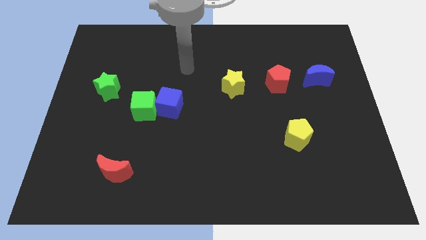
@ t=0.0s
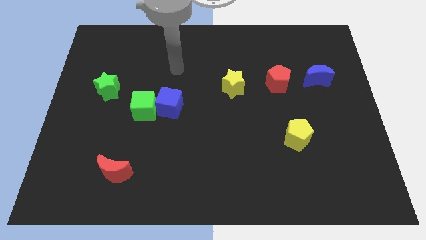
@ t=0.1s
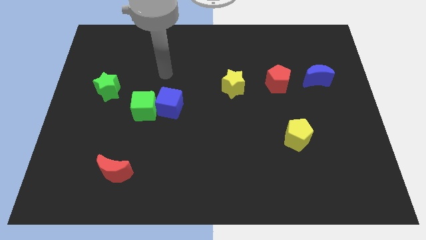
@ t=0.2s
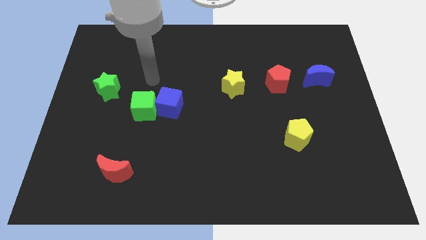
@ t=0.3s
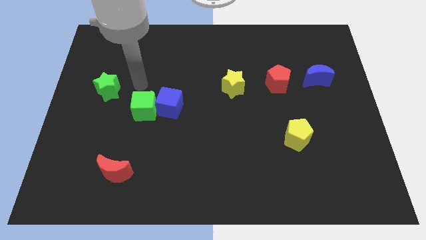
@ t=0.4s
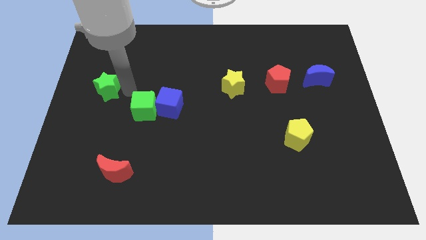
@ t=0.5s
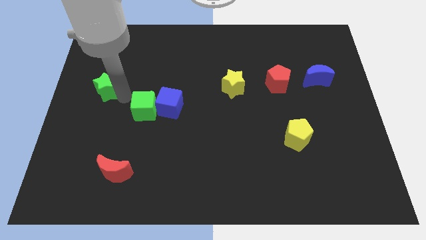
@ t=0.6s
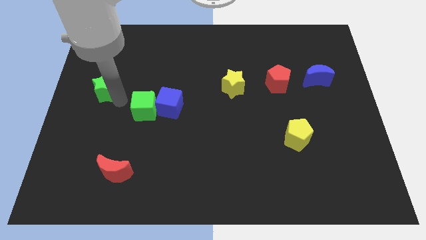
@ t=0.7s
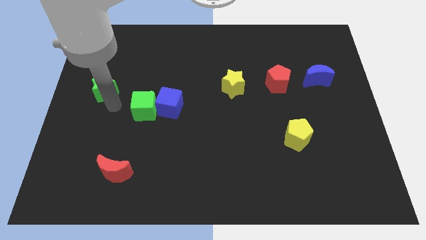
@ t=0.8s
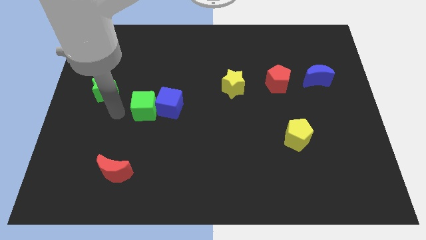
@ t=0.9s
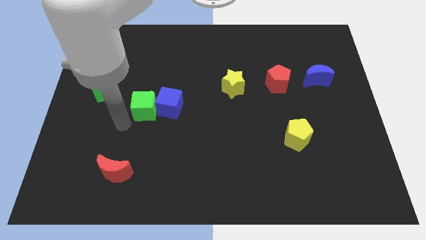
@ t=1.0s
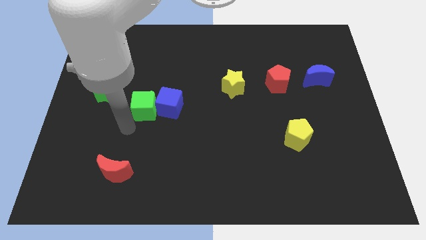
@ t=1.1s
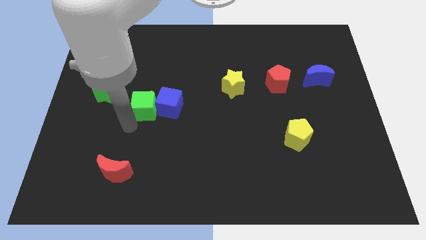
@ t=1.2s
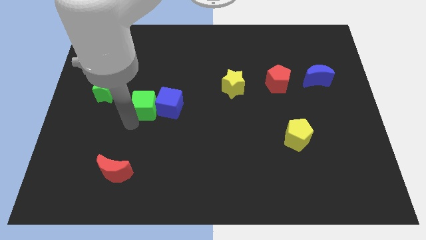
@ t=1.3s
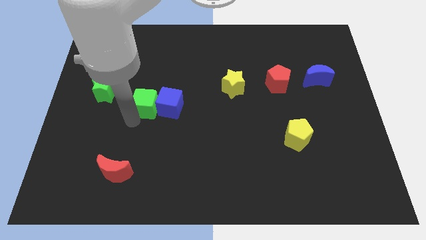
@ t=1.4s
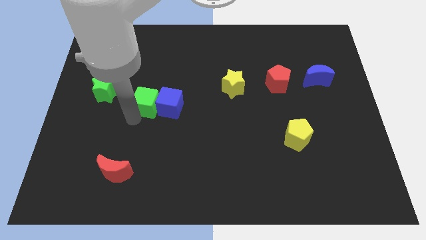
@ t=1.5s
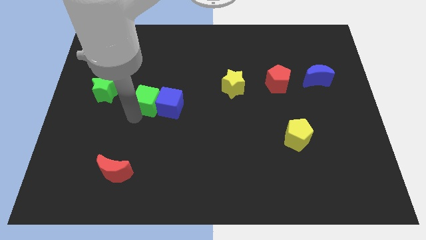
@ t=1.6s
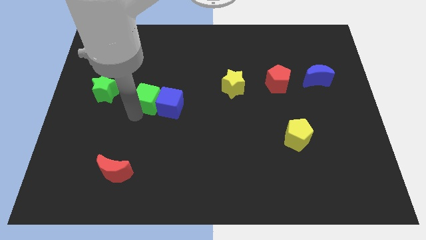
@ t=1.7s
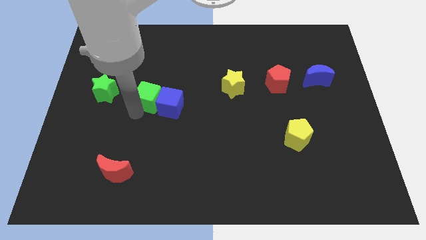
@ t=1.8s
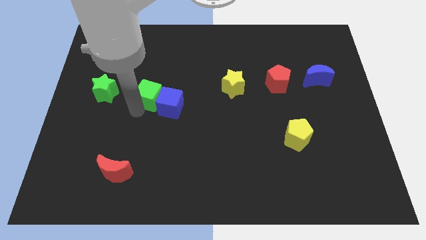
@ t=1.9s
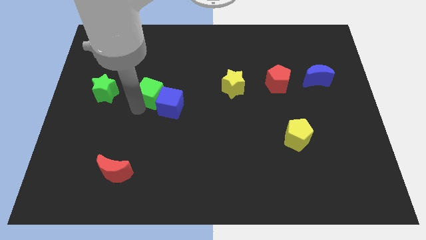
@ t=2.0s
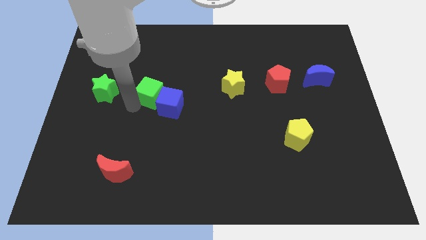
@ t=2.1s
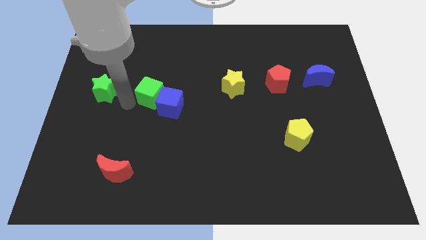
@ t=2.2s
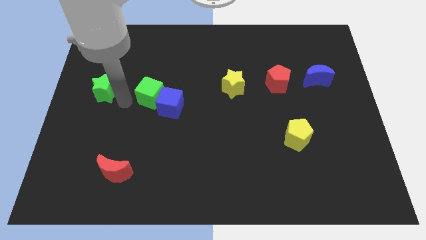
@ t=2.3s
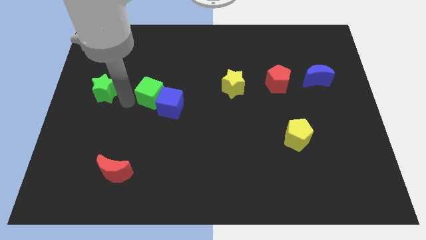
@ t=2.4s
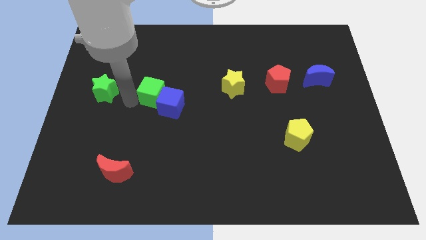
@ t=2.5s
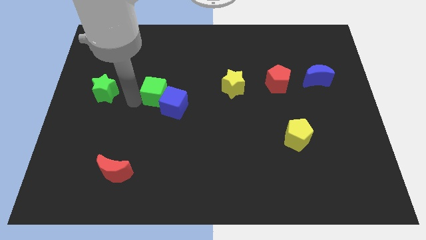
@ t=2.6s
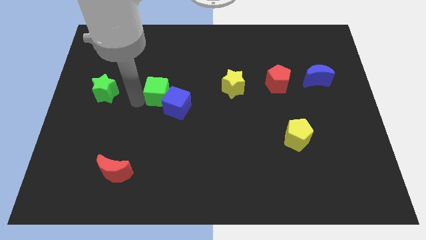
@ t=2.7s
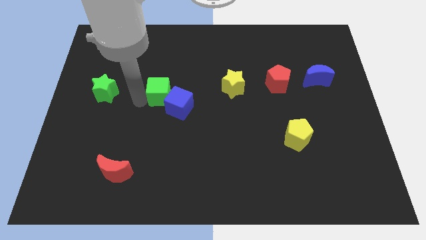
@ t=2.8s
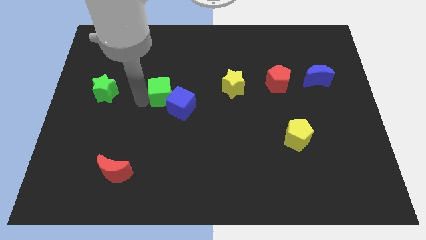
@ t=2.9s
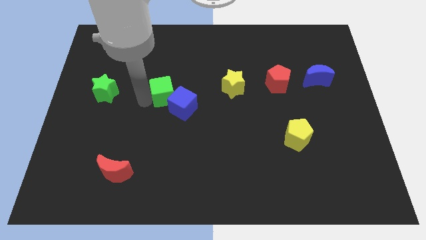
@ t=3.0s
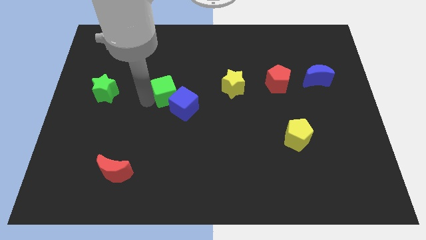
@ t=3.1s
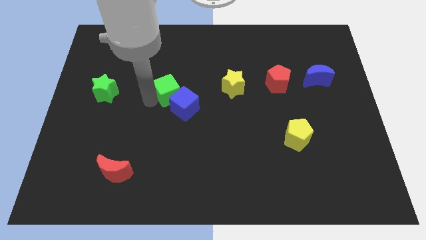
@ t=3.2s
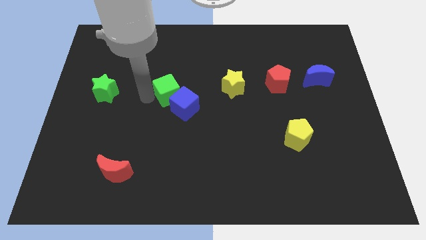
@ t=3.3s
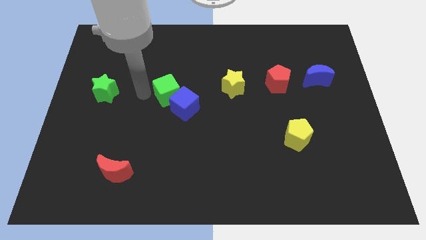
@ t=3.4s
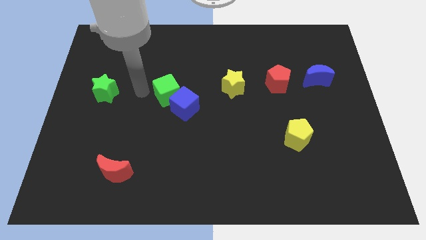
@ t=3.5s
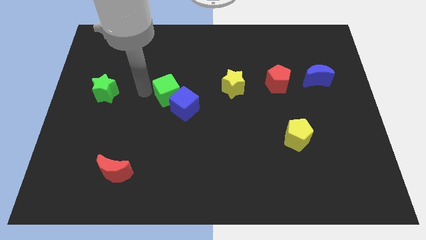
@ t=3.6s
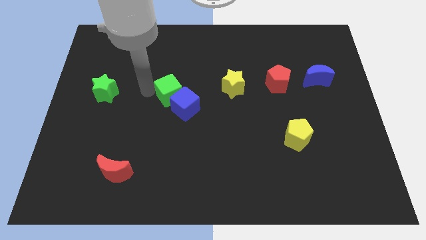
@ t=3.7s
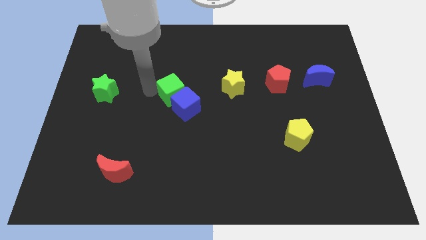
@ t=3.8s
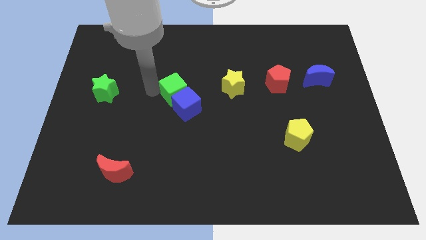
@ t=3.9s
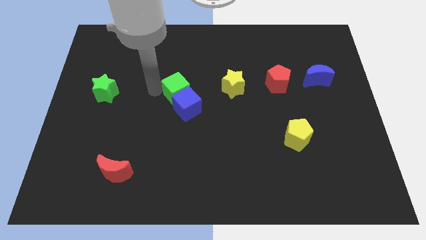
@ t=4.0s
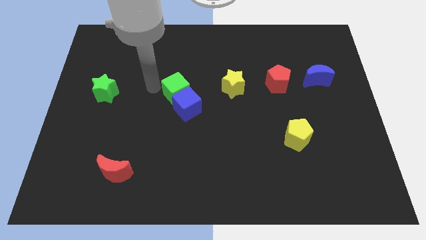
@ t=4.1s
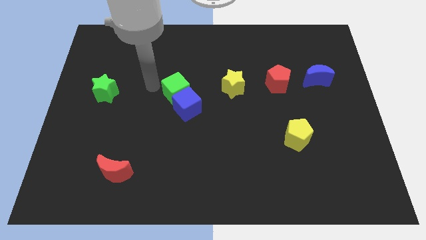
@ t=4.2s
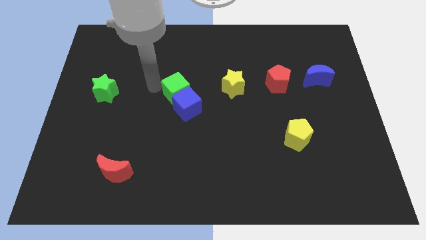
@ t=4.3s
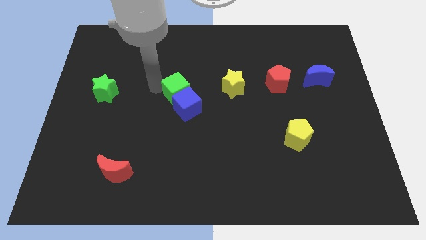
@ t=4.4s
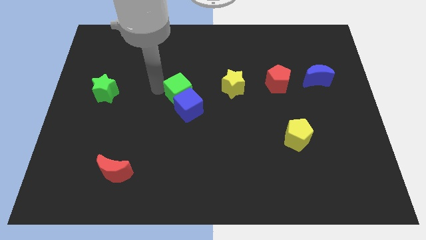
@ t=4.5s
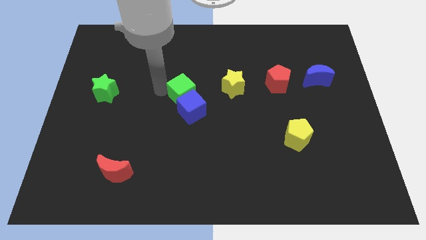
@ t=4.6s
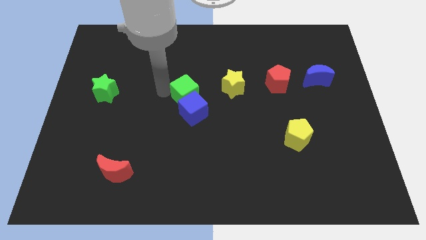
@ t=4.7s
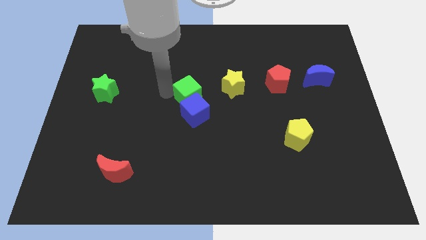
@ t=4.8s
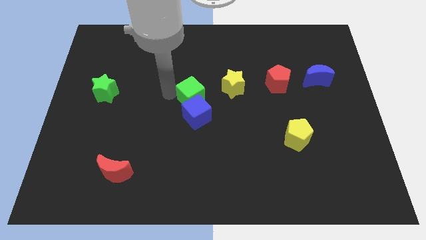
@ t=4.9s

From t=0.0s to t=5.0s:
put the green cube to the bottom left side of the yellow star

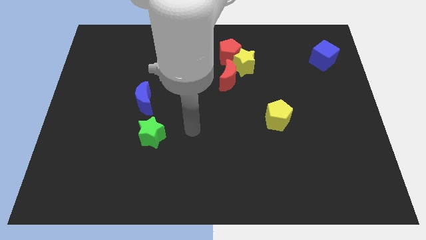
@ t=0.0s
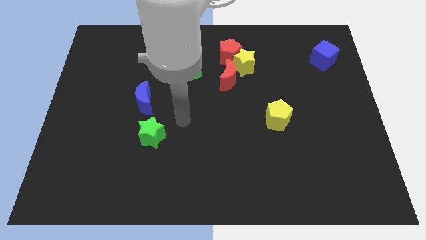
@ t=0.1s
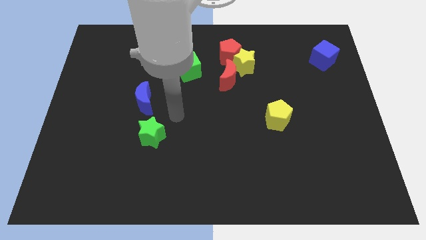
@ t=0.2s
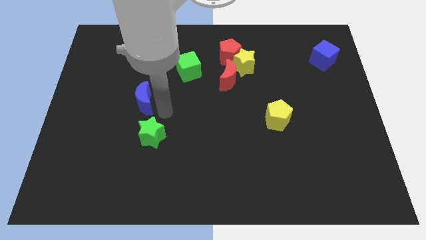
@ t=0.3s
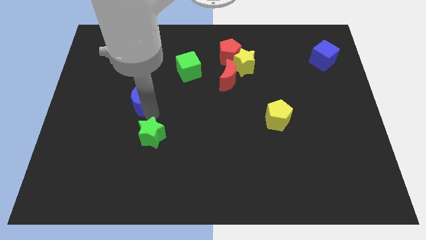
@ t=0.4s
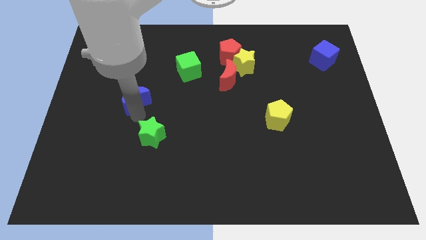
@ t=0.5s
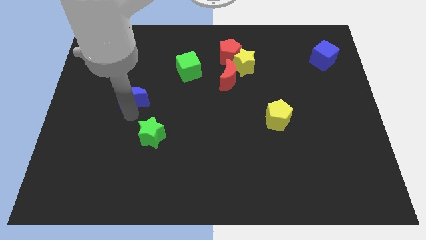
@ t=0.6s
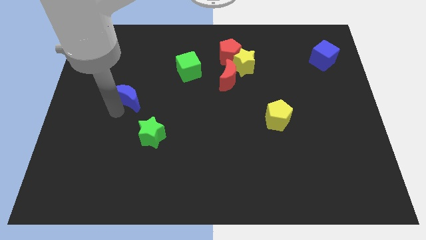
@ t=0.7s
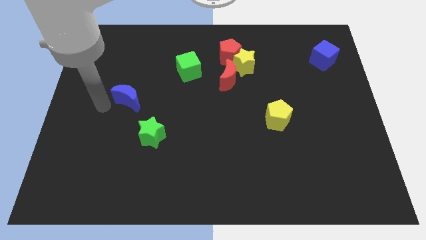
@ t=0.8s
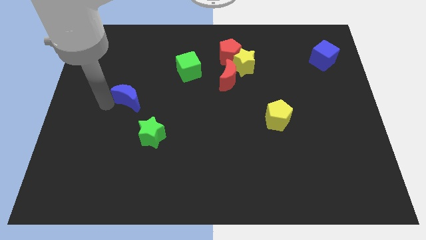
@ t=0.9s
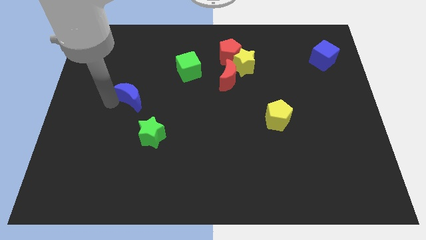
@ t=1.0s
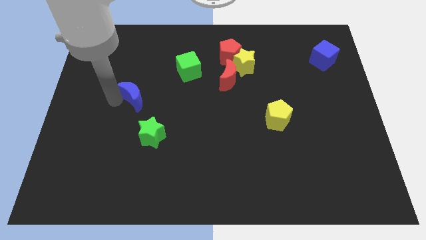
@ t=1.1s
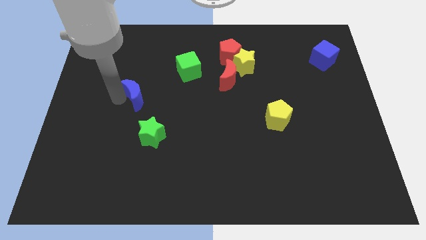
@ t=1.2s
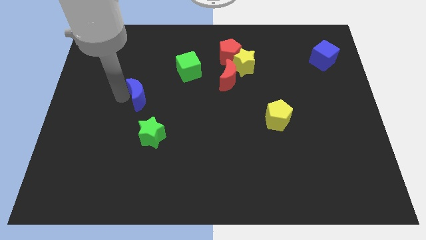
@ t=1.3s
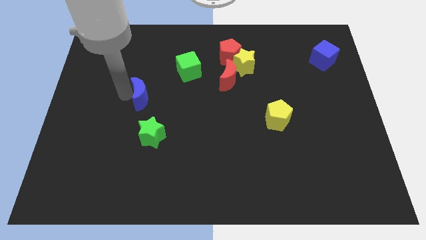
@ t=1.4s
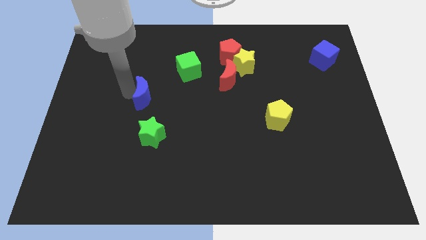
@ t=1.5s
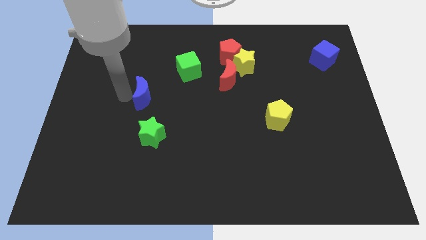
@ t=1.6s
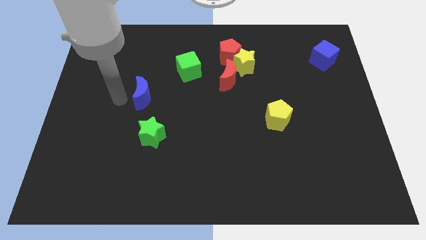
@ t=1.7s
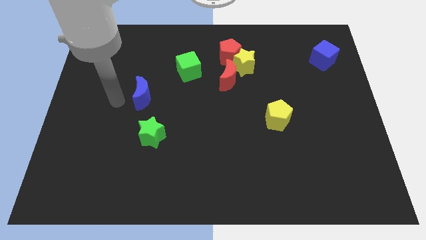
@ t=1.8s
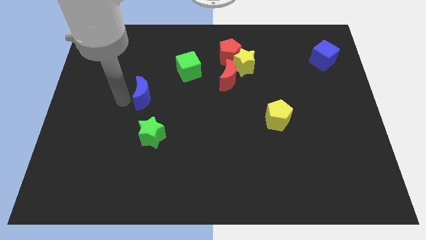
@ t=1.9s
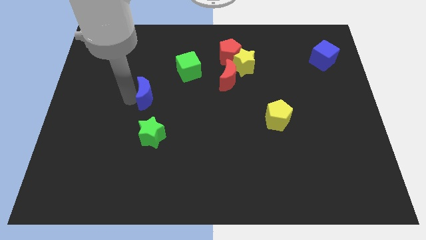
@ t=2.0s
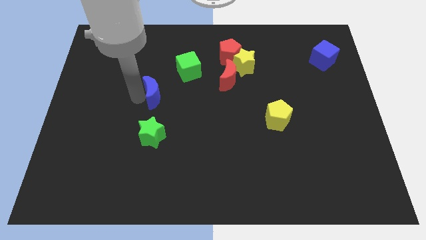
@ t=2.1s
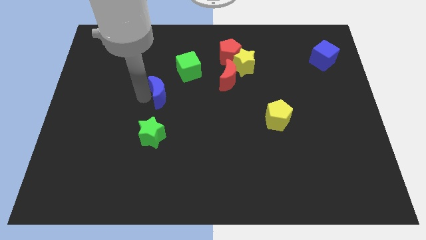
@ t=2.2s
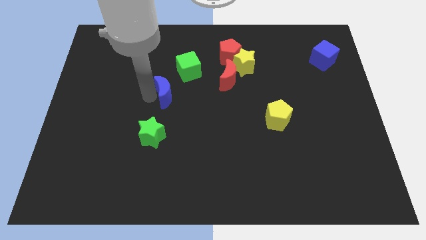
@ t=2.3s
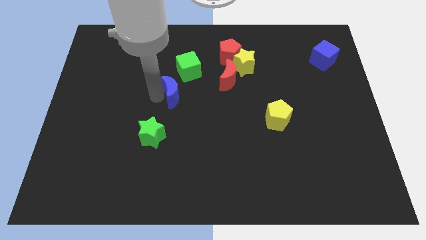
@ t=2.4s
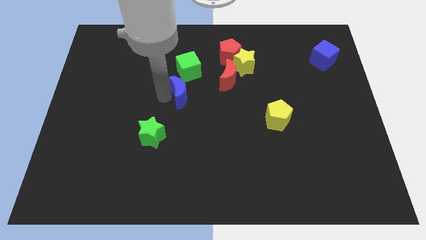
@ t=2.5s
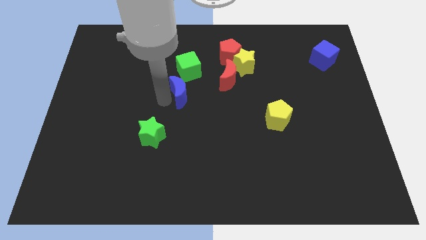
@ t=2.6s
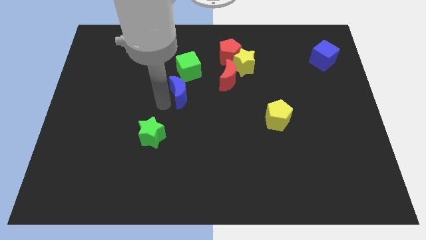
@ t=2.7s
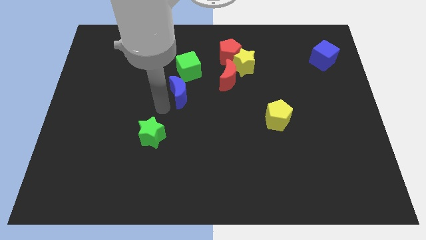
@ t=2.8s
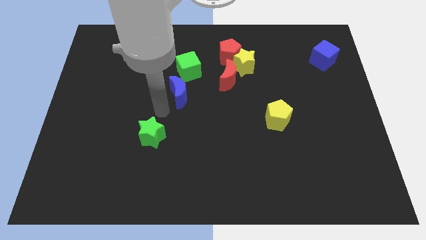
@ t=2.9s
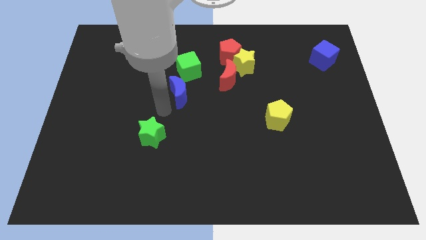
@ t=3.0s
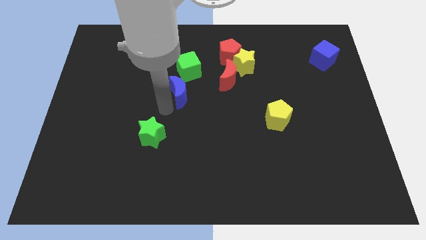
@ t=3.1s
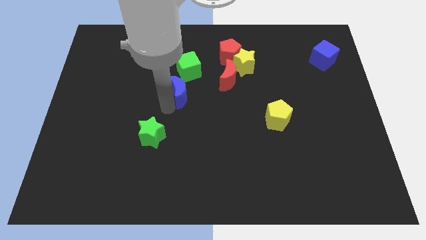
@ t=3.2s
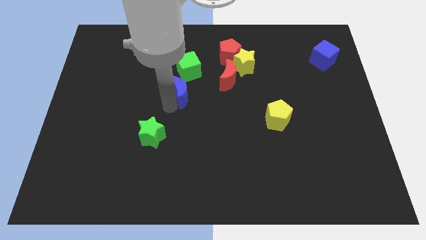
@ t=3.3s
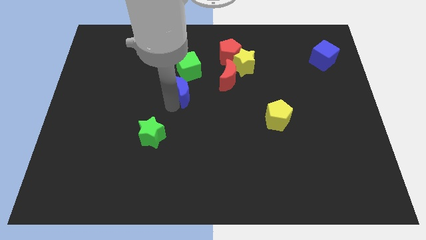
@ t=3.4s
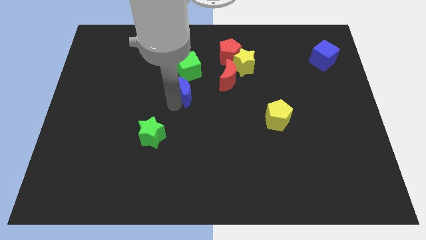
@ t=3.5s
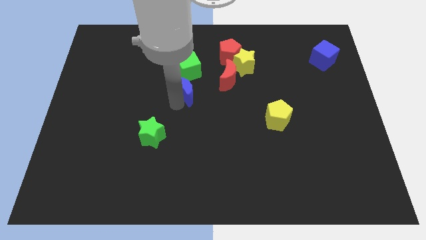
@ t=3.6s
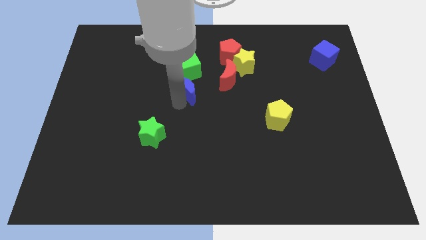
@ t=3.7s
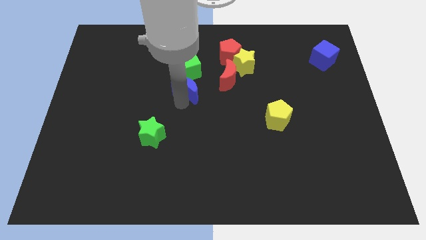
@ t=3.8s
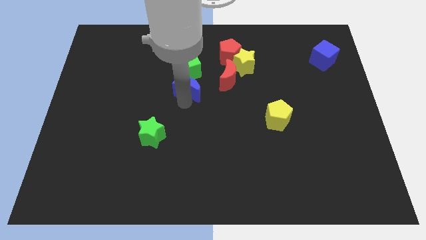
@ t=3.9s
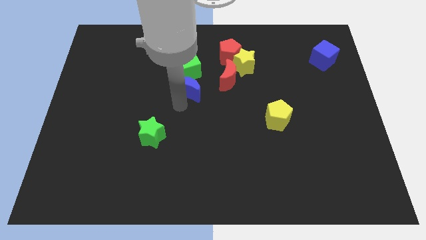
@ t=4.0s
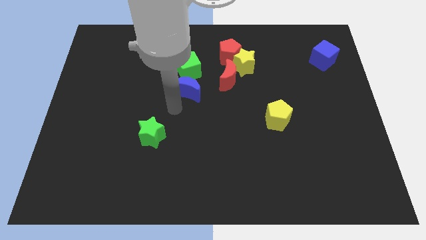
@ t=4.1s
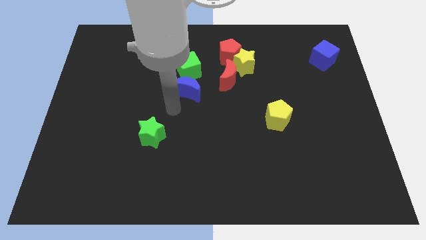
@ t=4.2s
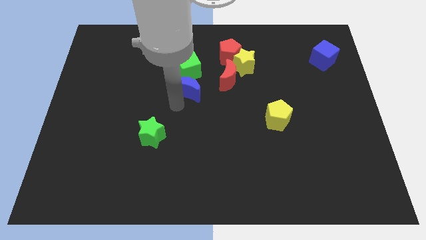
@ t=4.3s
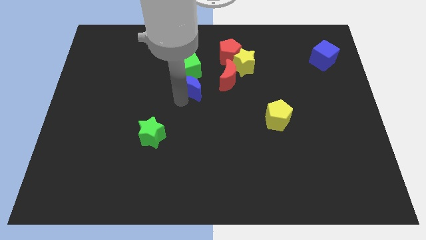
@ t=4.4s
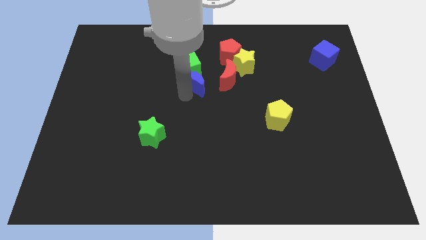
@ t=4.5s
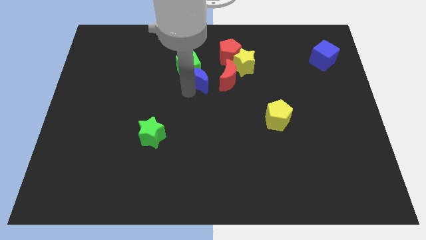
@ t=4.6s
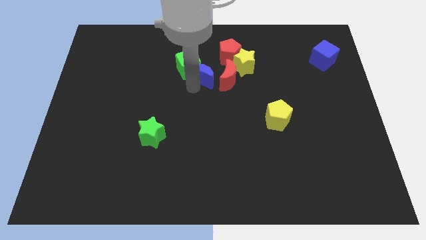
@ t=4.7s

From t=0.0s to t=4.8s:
slide the blue moon to the top left side of the red moon
